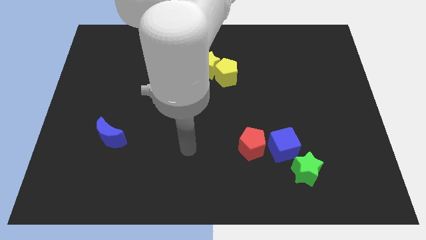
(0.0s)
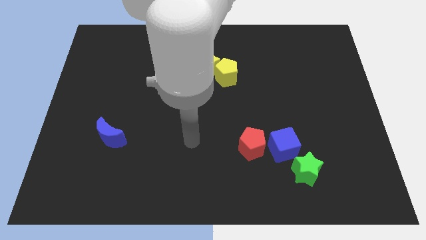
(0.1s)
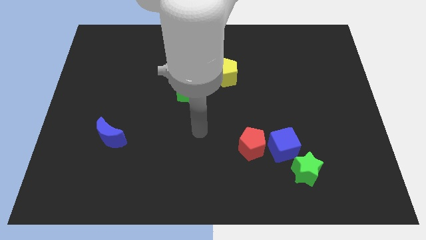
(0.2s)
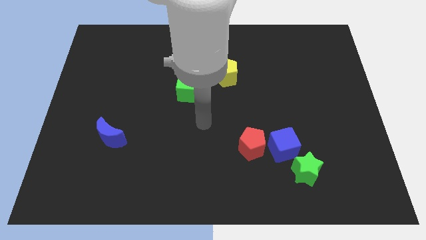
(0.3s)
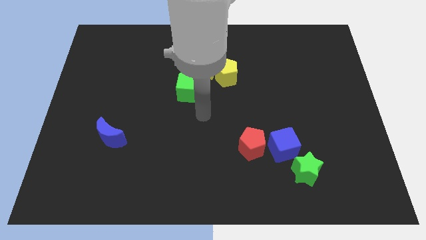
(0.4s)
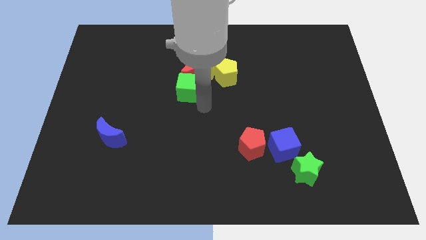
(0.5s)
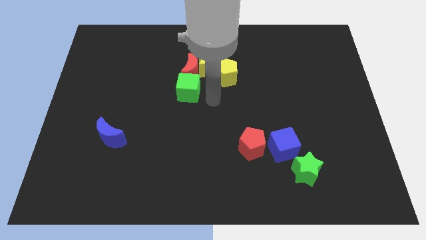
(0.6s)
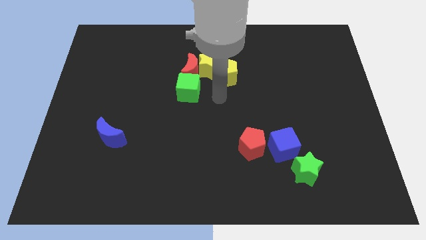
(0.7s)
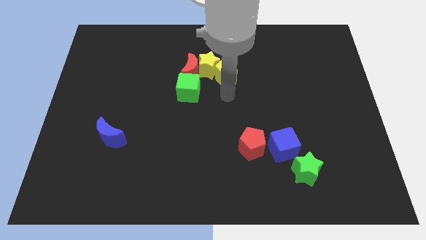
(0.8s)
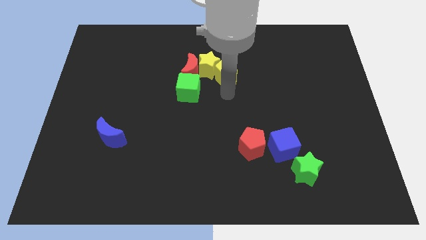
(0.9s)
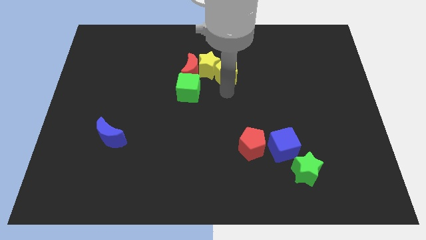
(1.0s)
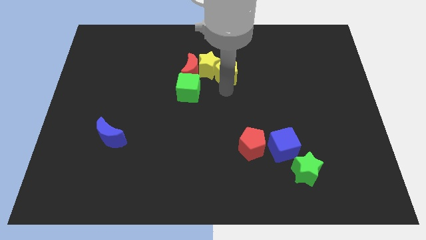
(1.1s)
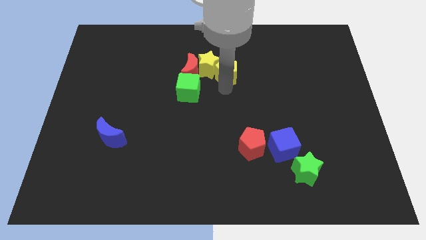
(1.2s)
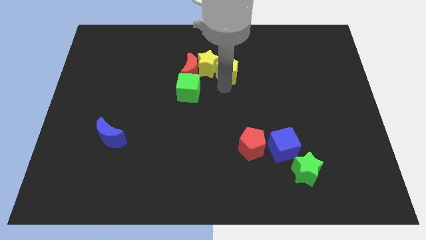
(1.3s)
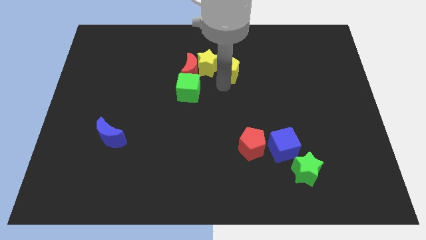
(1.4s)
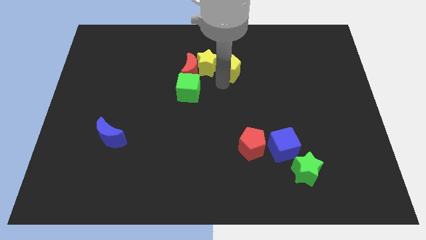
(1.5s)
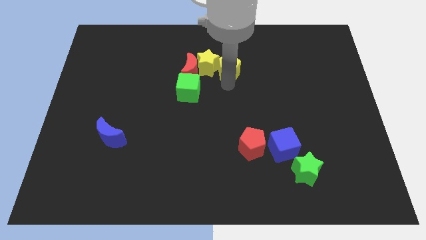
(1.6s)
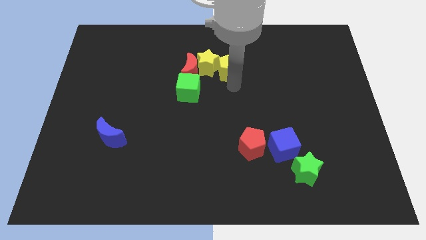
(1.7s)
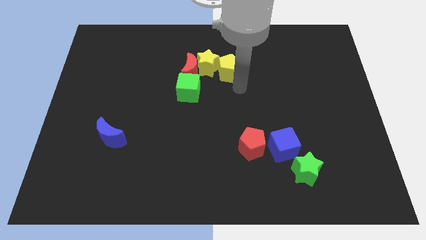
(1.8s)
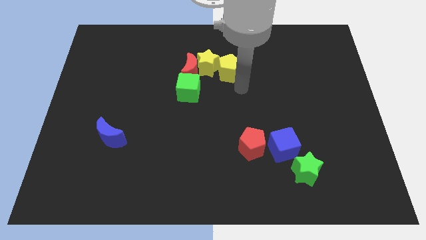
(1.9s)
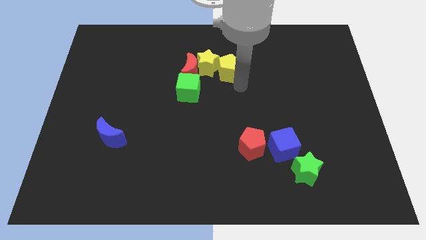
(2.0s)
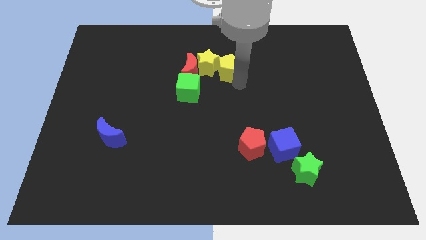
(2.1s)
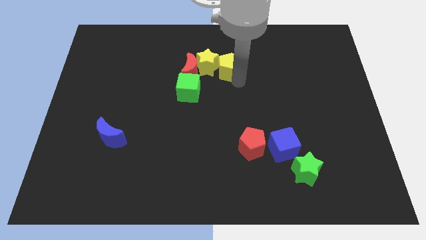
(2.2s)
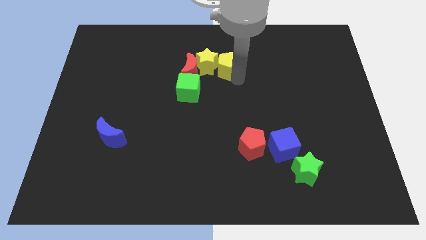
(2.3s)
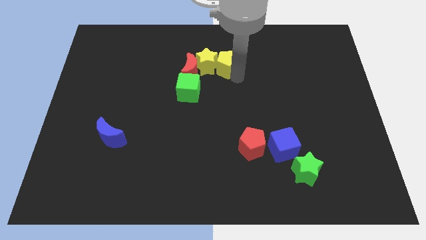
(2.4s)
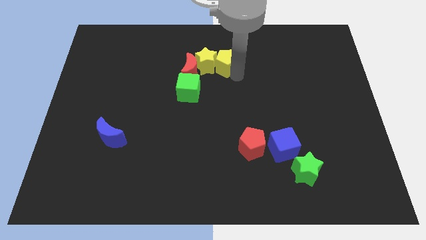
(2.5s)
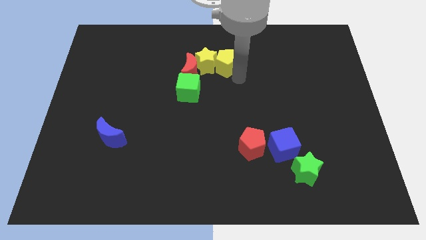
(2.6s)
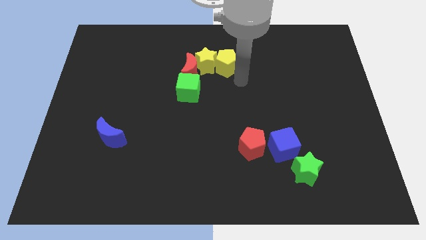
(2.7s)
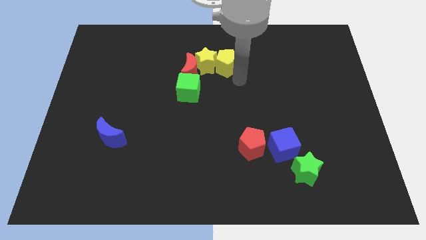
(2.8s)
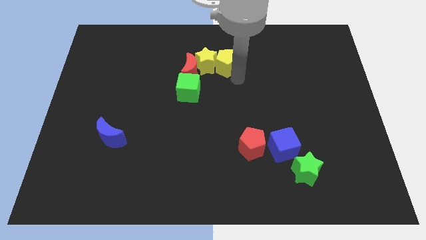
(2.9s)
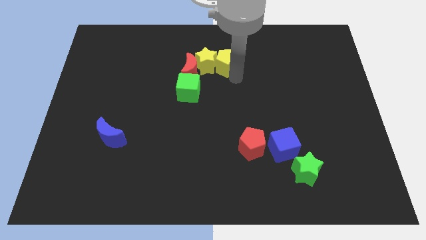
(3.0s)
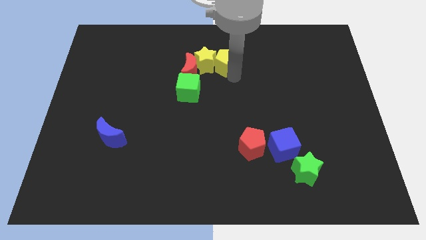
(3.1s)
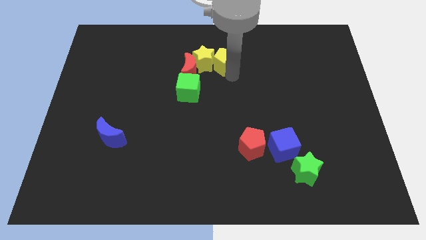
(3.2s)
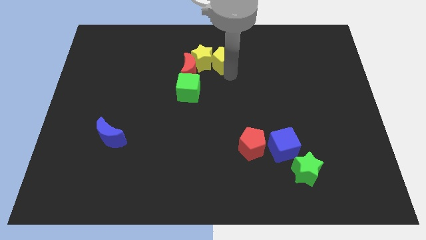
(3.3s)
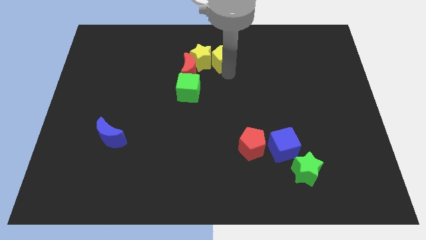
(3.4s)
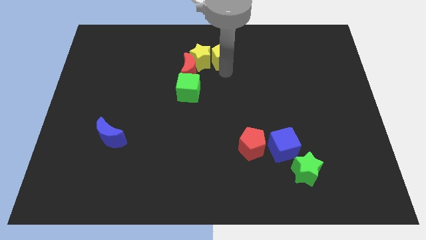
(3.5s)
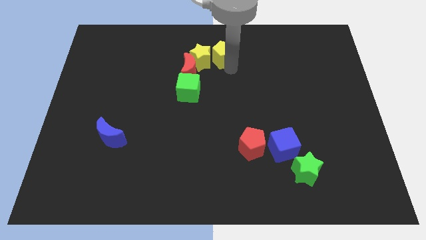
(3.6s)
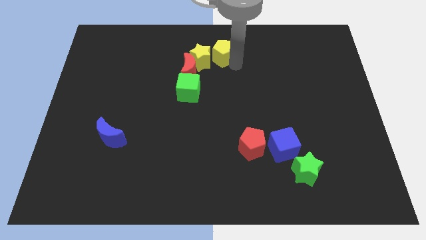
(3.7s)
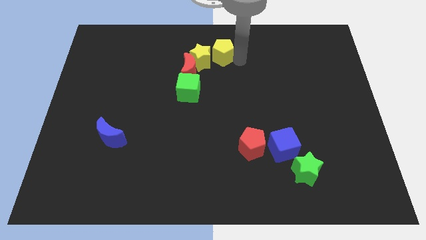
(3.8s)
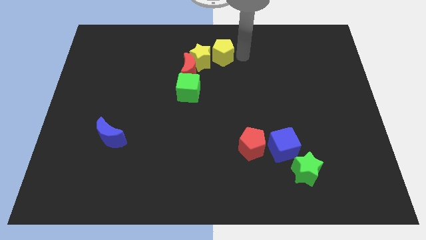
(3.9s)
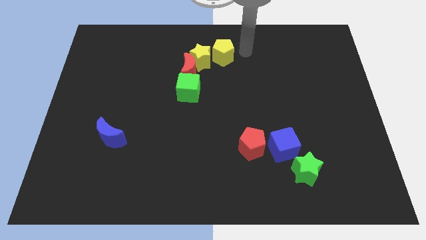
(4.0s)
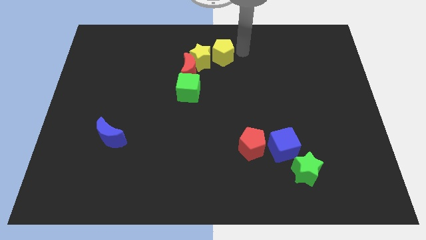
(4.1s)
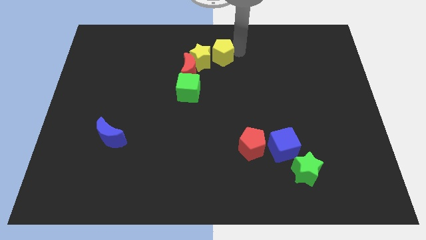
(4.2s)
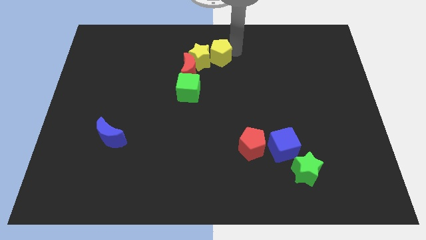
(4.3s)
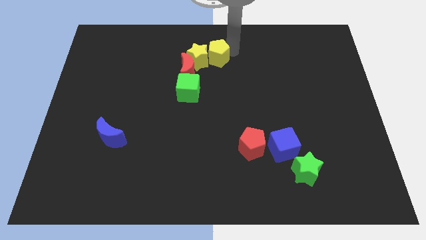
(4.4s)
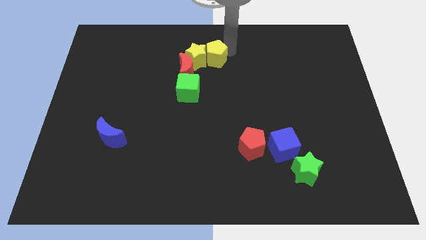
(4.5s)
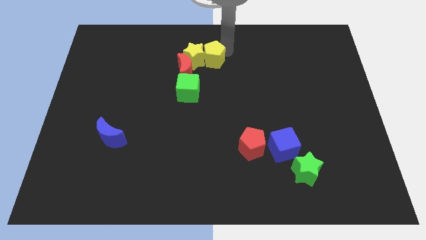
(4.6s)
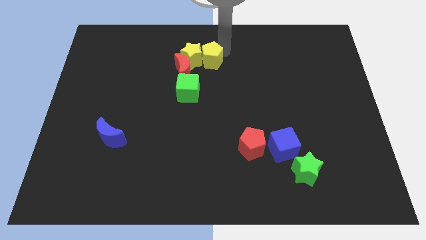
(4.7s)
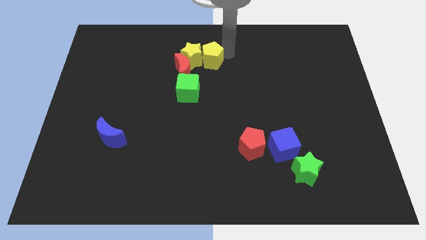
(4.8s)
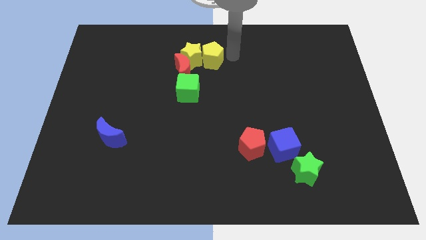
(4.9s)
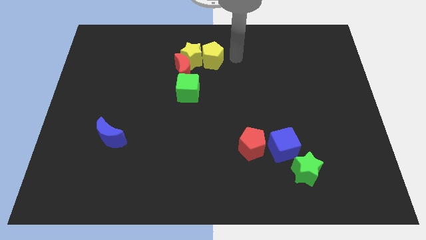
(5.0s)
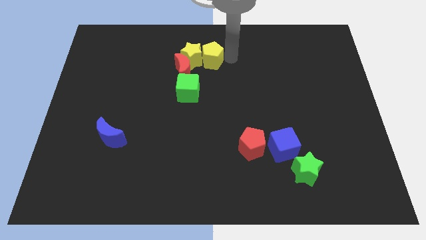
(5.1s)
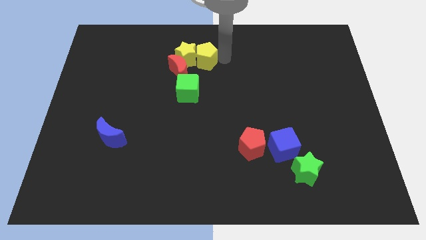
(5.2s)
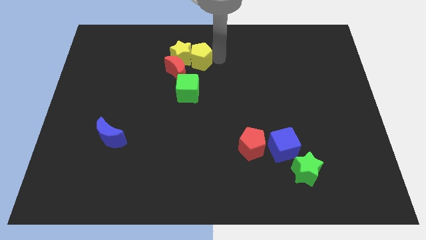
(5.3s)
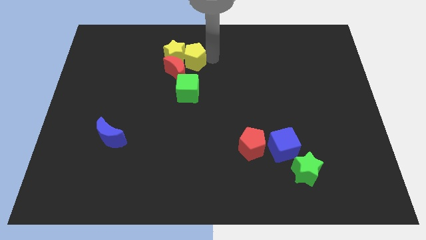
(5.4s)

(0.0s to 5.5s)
slide the yellow pentagon close to the red moon

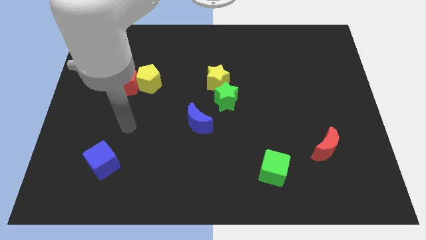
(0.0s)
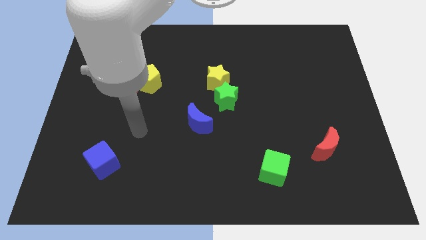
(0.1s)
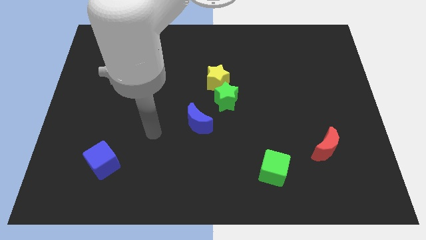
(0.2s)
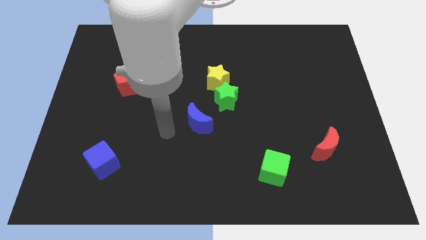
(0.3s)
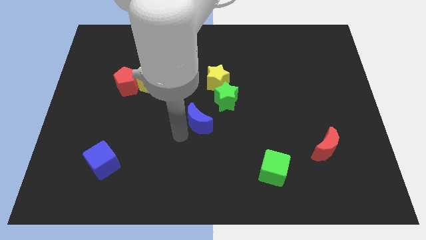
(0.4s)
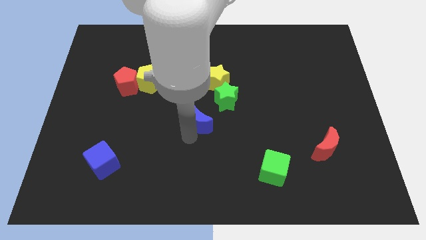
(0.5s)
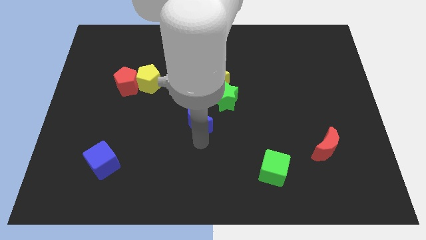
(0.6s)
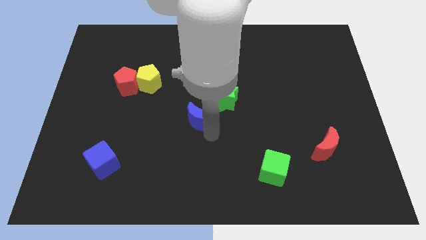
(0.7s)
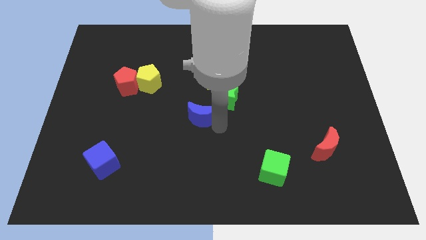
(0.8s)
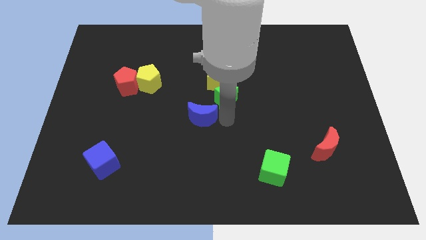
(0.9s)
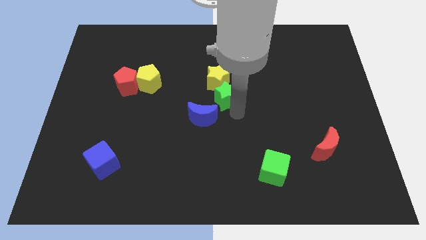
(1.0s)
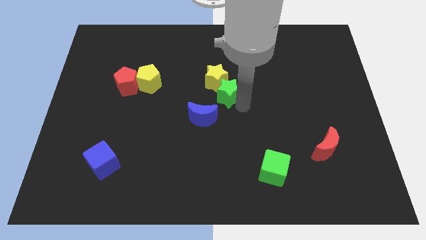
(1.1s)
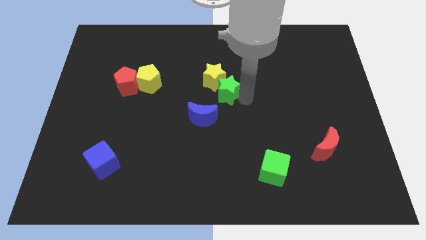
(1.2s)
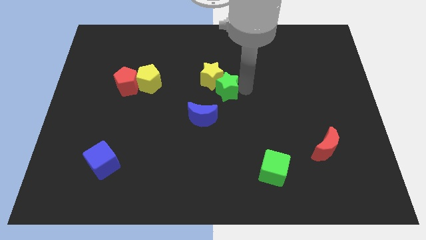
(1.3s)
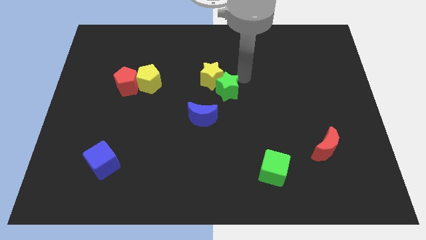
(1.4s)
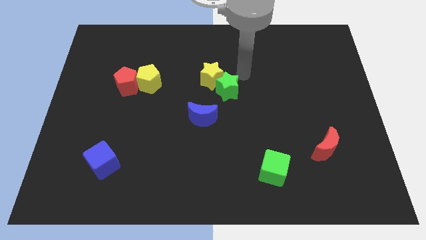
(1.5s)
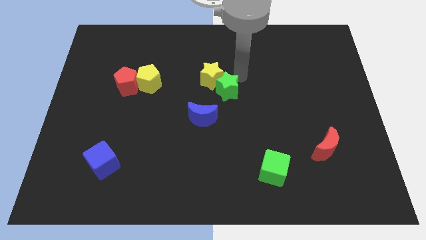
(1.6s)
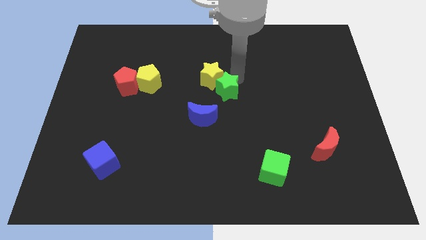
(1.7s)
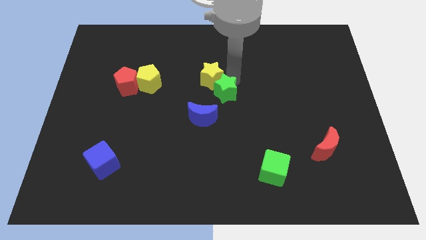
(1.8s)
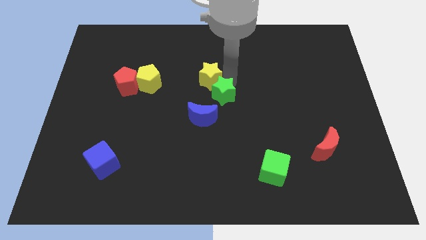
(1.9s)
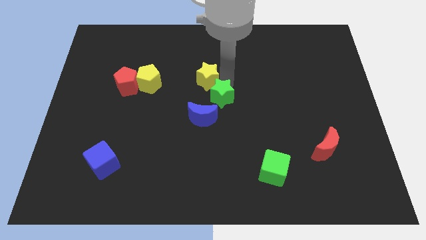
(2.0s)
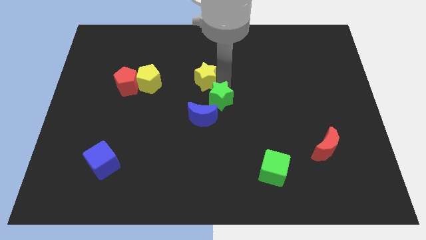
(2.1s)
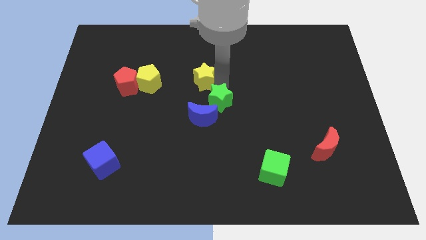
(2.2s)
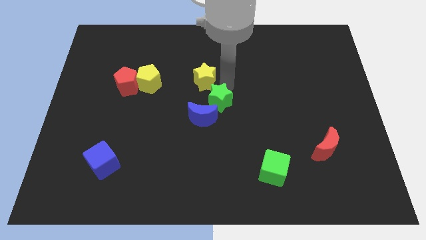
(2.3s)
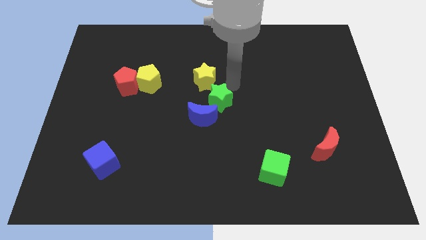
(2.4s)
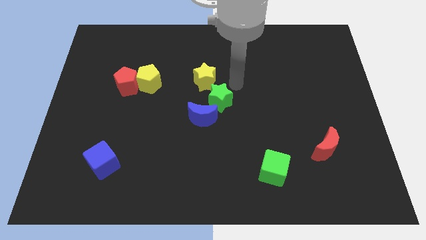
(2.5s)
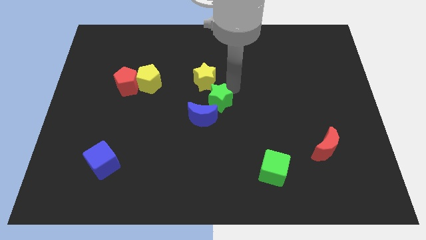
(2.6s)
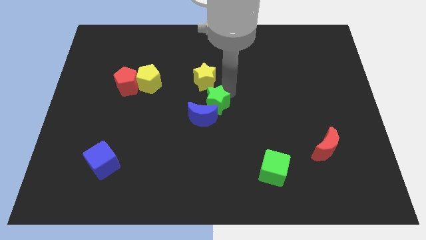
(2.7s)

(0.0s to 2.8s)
push the green star towards the blue moon

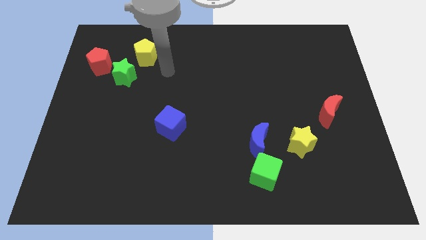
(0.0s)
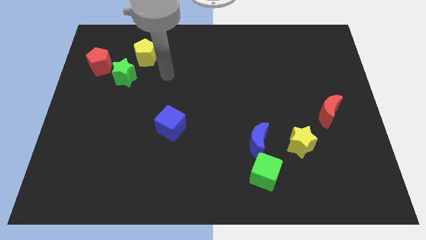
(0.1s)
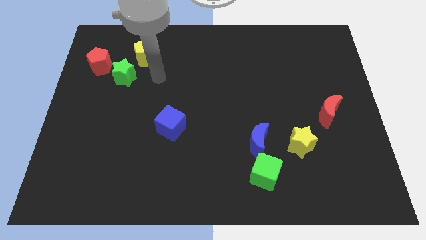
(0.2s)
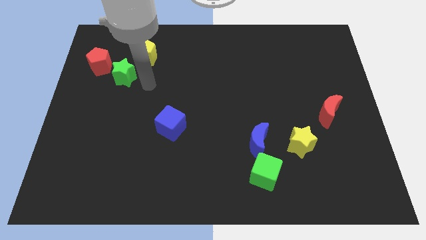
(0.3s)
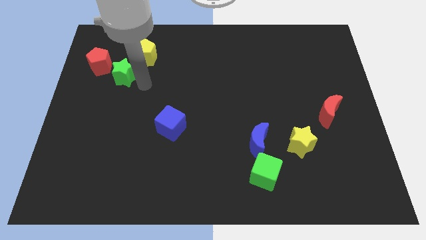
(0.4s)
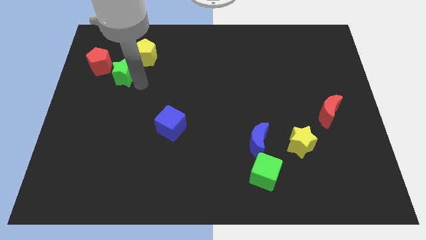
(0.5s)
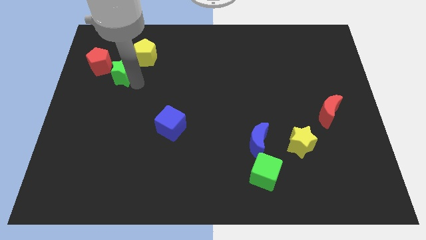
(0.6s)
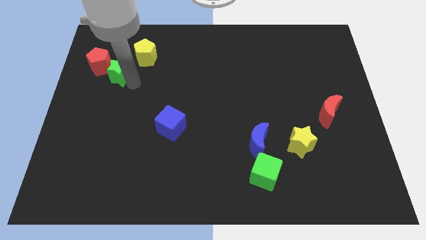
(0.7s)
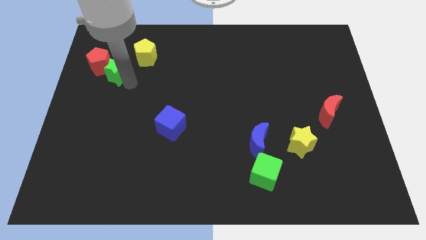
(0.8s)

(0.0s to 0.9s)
put the green star towards the red pentagon
